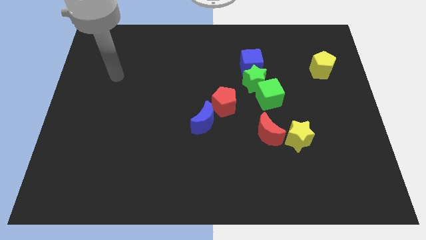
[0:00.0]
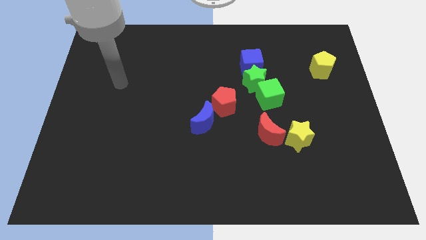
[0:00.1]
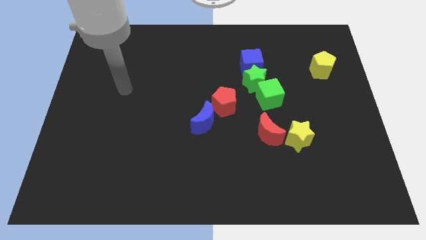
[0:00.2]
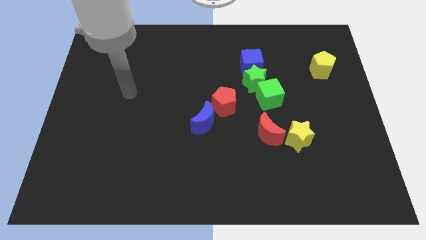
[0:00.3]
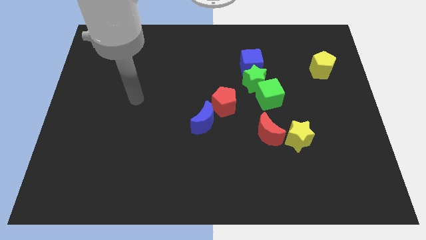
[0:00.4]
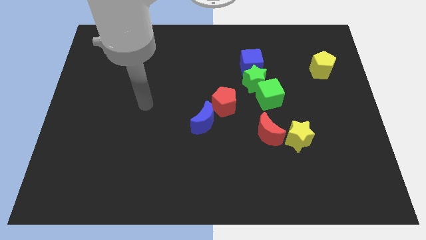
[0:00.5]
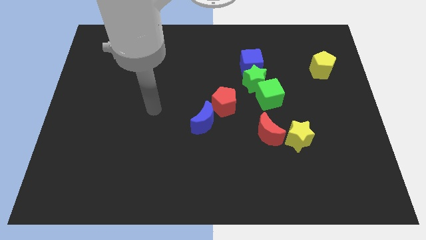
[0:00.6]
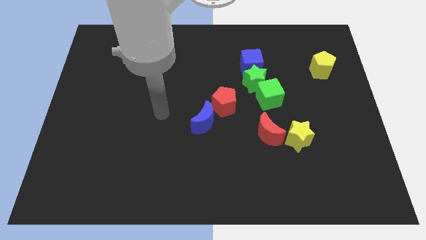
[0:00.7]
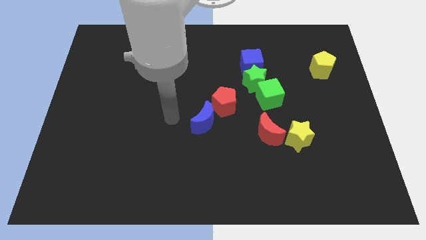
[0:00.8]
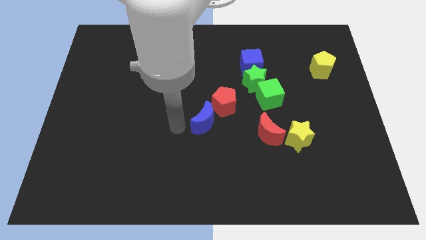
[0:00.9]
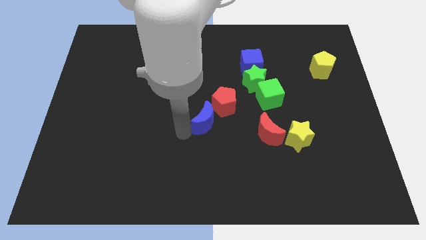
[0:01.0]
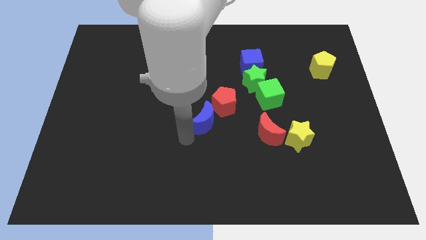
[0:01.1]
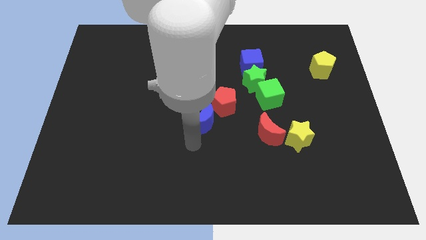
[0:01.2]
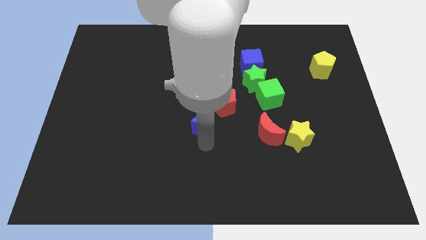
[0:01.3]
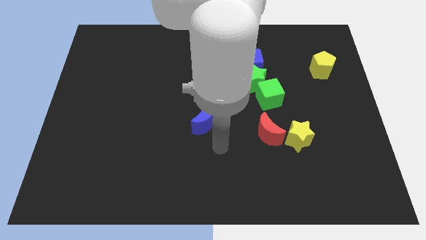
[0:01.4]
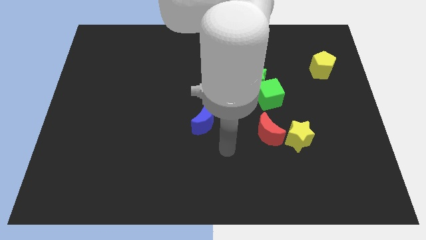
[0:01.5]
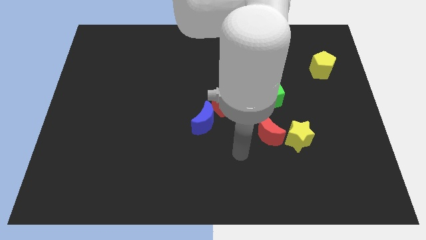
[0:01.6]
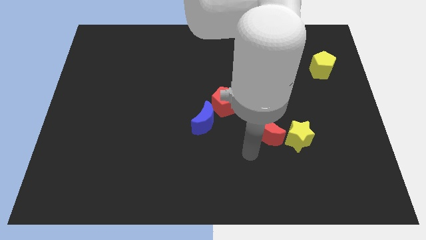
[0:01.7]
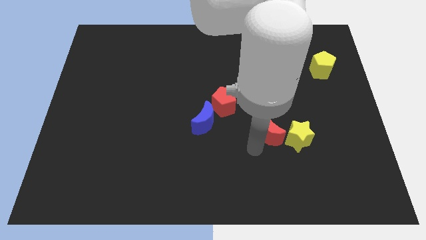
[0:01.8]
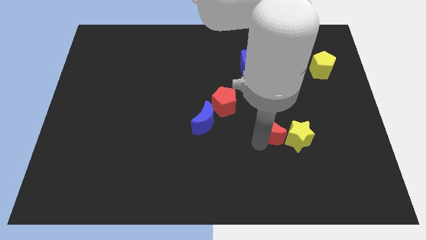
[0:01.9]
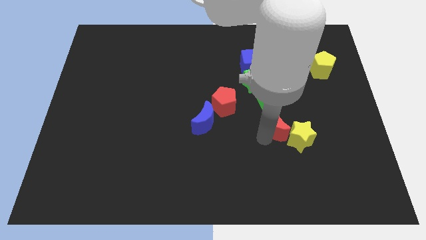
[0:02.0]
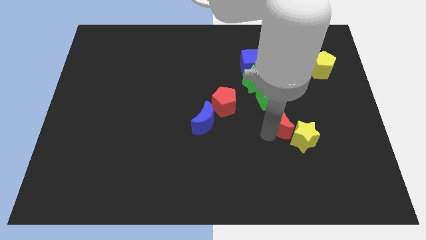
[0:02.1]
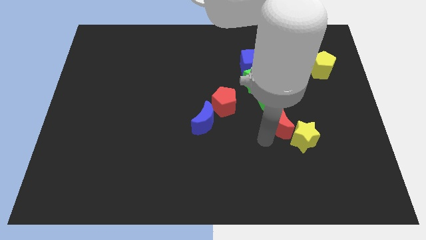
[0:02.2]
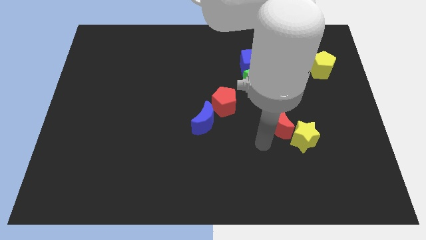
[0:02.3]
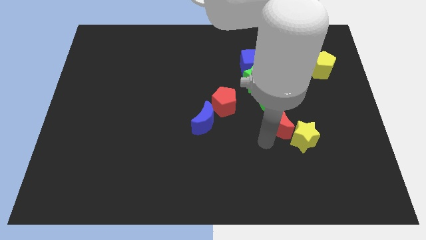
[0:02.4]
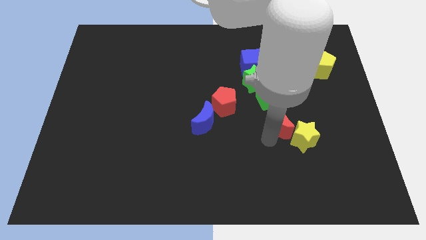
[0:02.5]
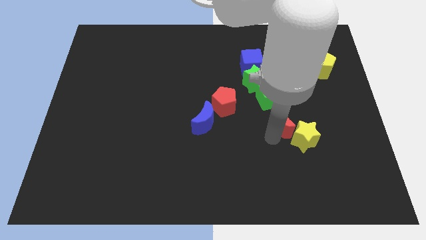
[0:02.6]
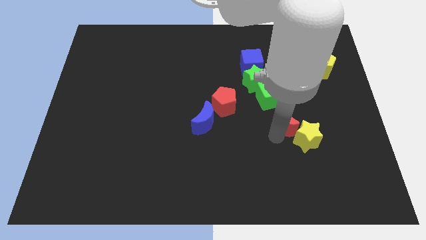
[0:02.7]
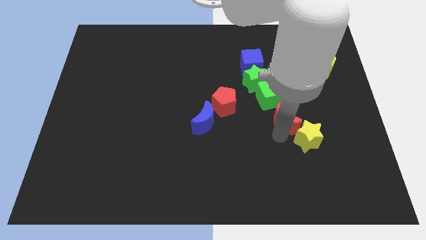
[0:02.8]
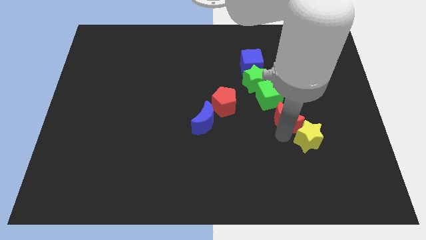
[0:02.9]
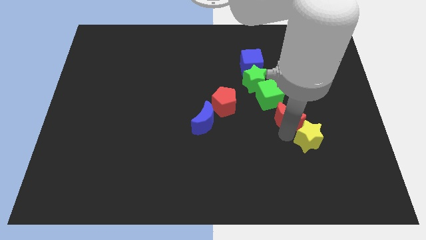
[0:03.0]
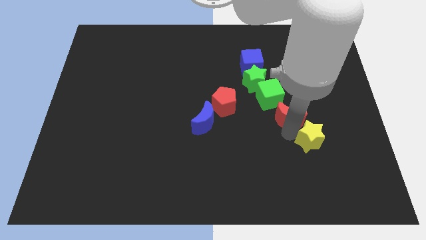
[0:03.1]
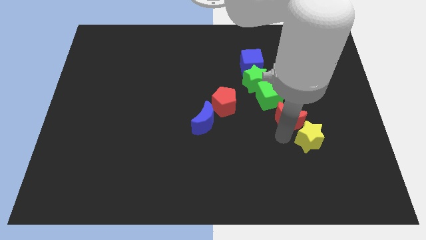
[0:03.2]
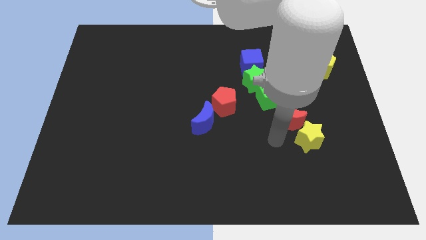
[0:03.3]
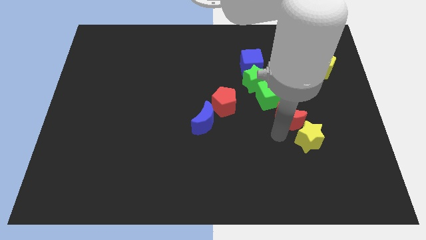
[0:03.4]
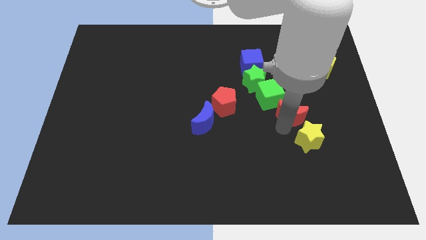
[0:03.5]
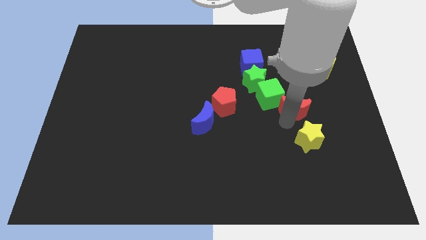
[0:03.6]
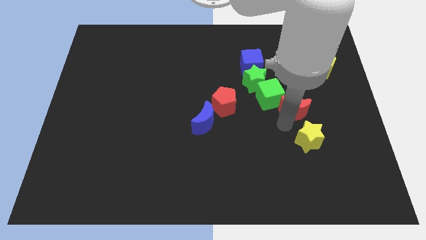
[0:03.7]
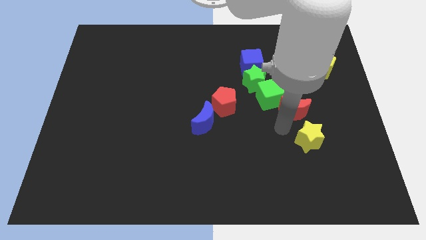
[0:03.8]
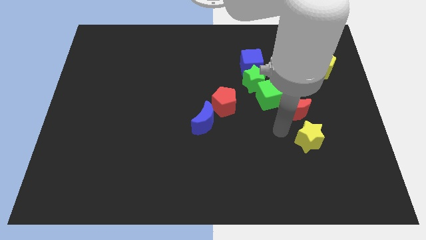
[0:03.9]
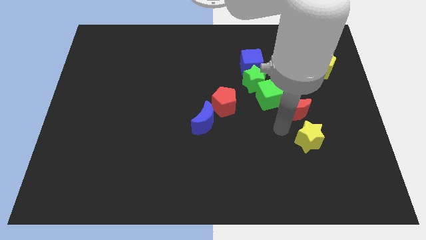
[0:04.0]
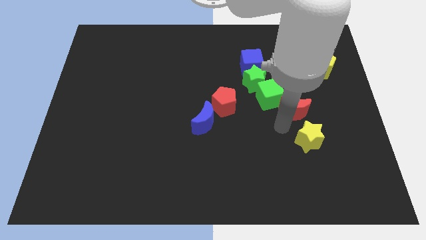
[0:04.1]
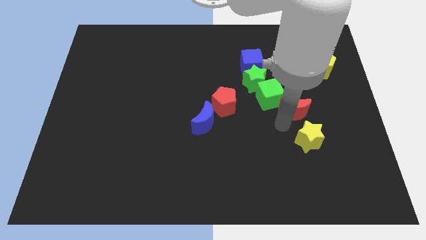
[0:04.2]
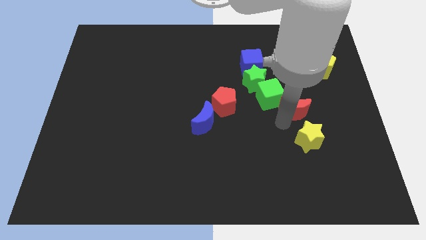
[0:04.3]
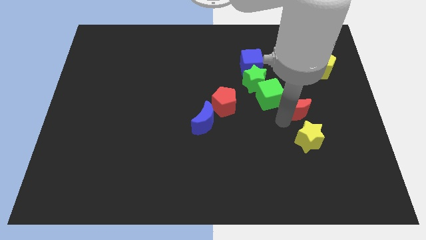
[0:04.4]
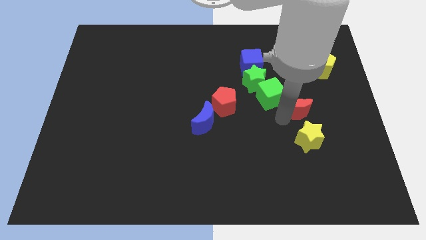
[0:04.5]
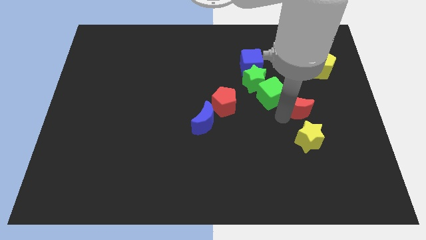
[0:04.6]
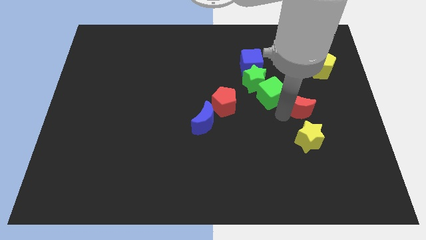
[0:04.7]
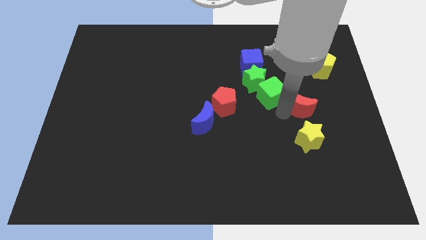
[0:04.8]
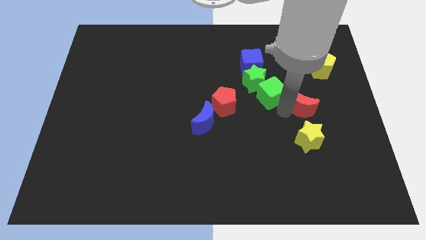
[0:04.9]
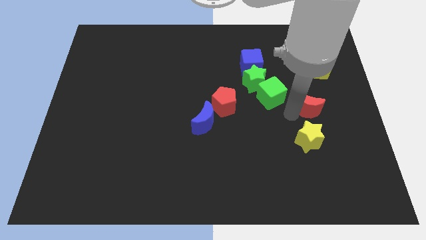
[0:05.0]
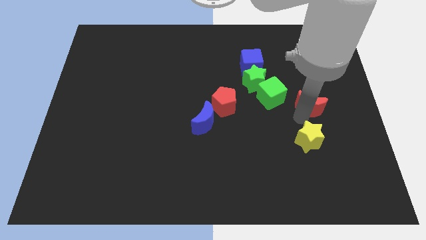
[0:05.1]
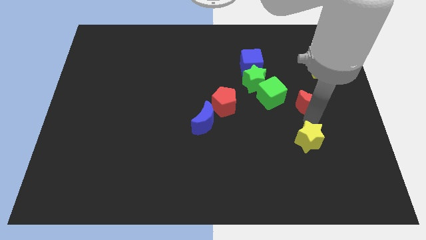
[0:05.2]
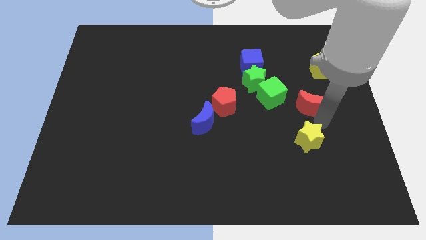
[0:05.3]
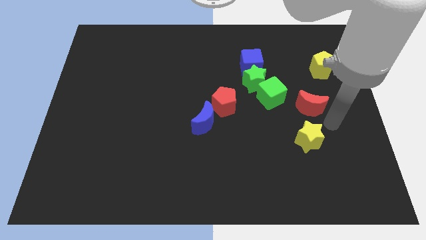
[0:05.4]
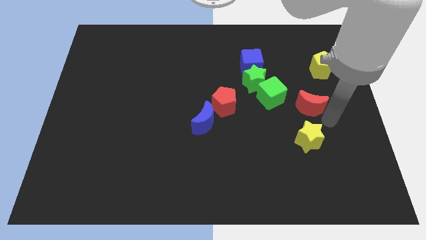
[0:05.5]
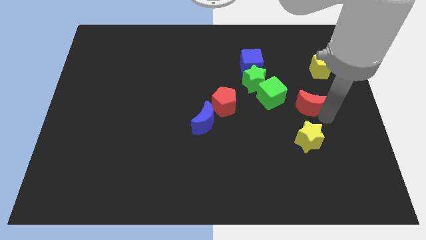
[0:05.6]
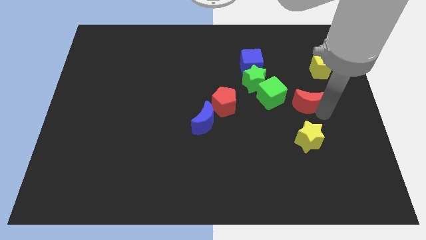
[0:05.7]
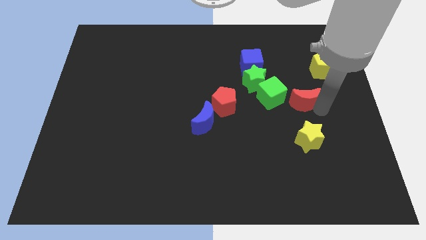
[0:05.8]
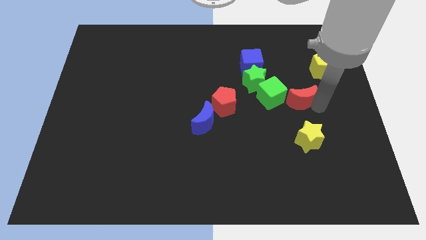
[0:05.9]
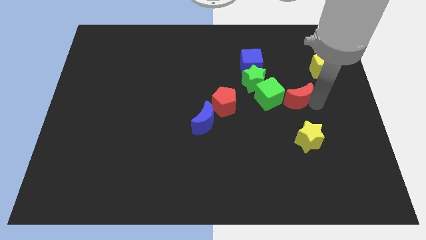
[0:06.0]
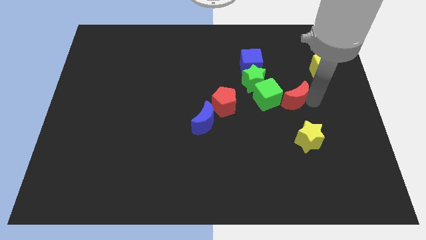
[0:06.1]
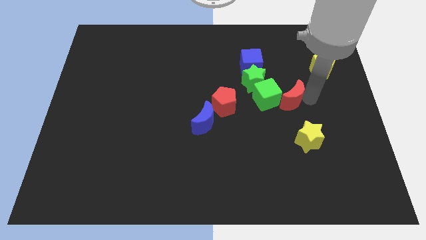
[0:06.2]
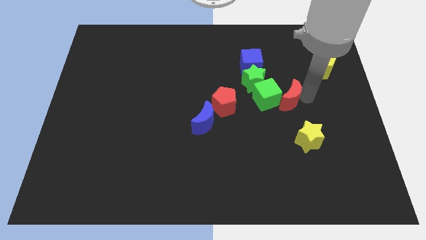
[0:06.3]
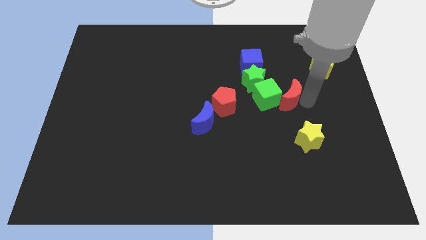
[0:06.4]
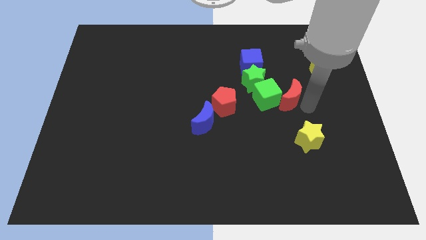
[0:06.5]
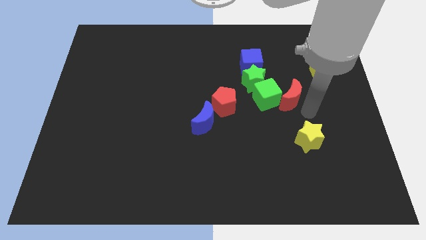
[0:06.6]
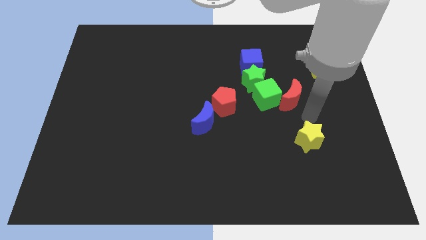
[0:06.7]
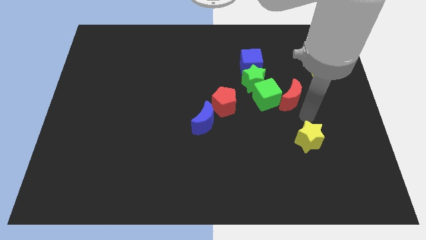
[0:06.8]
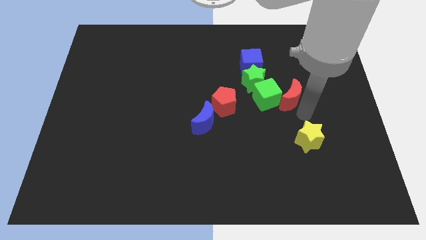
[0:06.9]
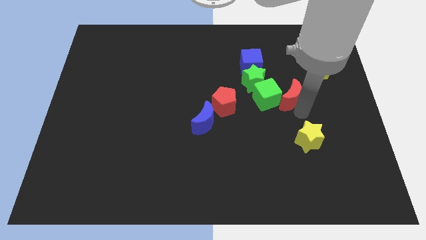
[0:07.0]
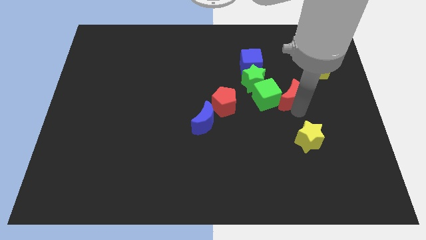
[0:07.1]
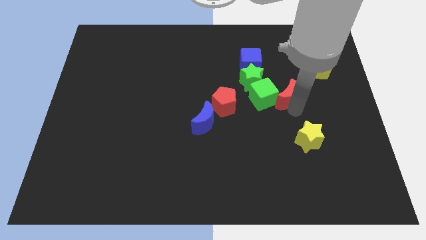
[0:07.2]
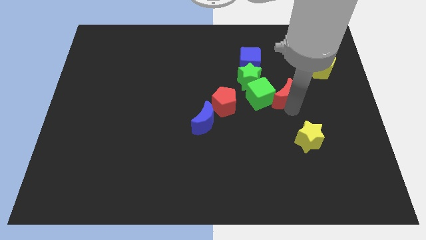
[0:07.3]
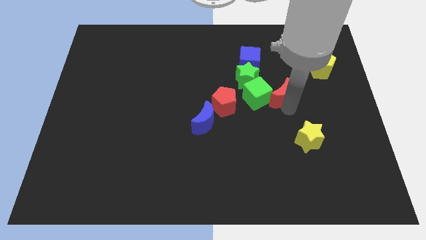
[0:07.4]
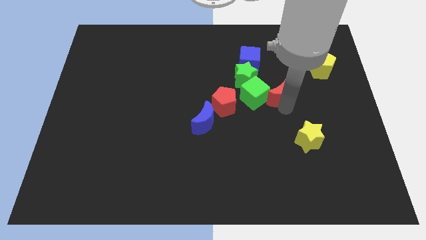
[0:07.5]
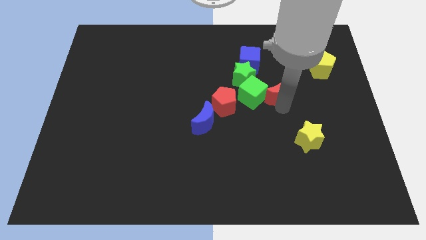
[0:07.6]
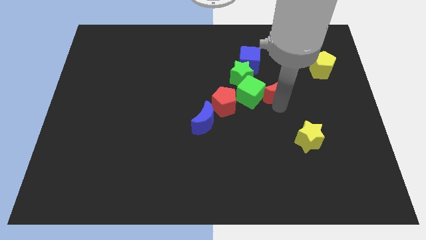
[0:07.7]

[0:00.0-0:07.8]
move the red moon diagonally down and to the right of the blue cube
